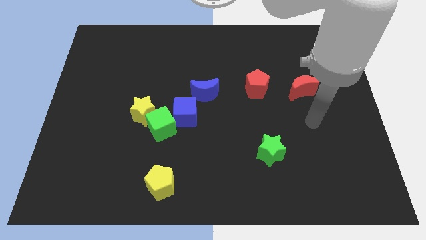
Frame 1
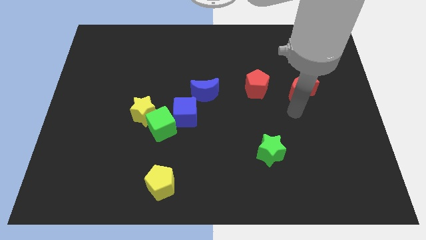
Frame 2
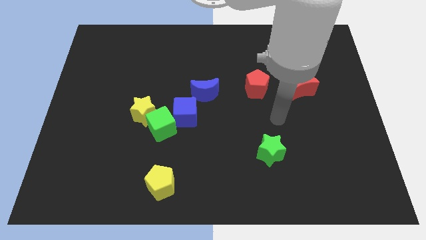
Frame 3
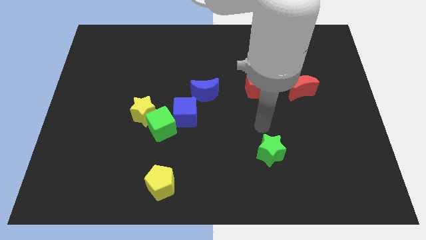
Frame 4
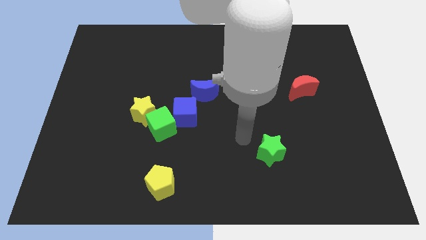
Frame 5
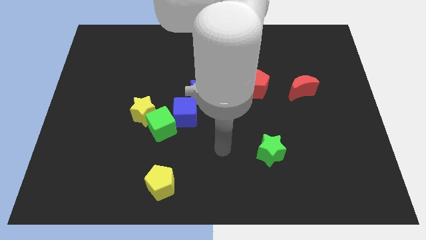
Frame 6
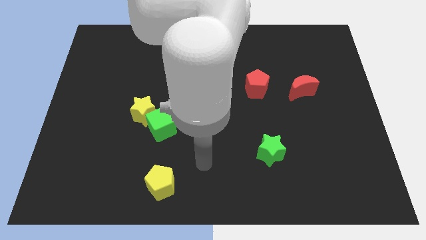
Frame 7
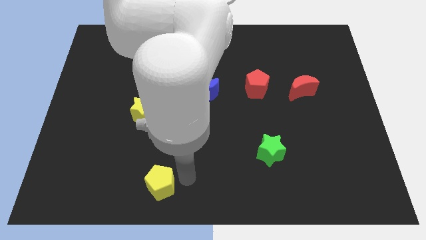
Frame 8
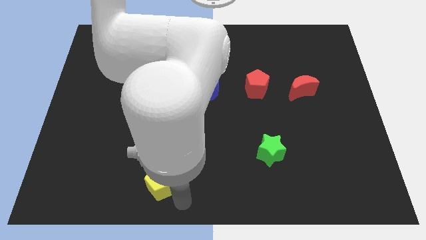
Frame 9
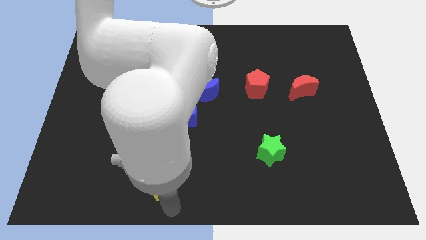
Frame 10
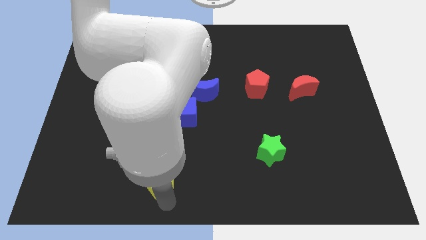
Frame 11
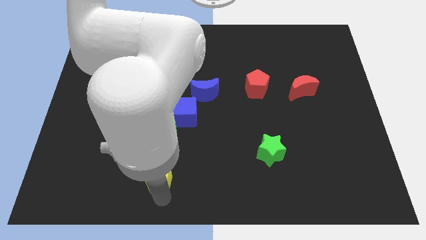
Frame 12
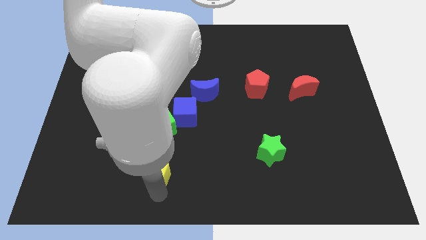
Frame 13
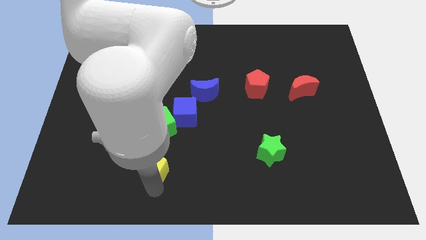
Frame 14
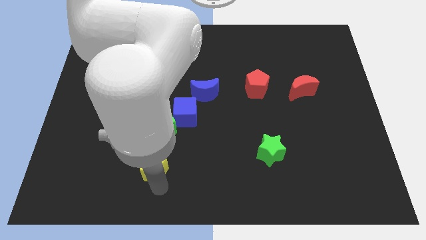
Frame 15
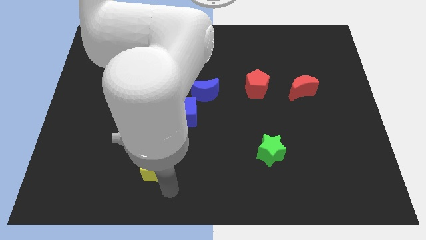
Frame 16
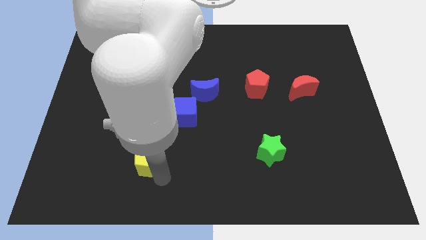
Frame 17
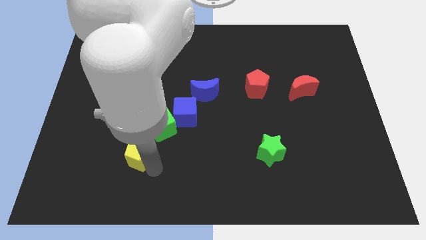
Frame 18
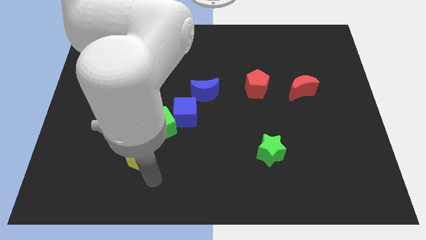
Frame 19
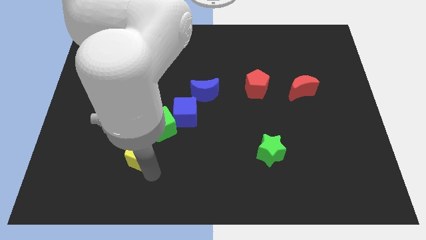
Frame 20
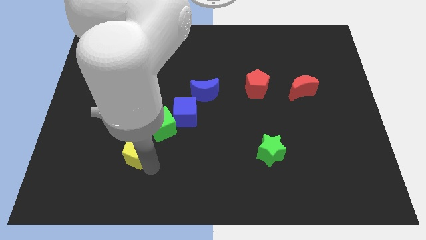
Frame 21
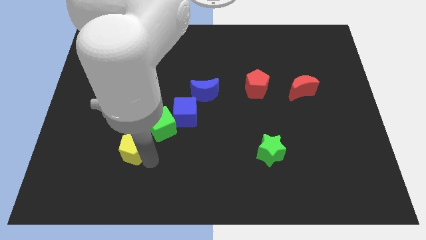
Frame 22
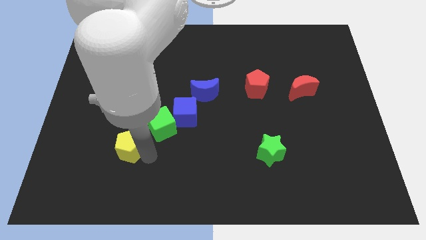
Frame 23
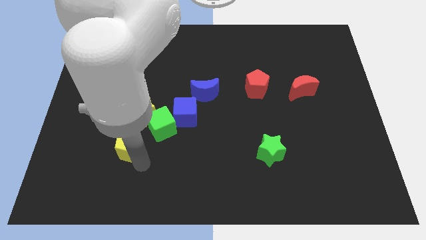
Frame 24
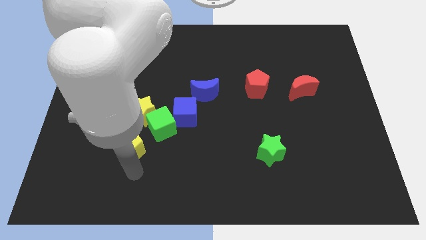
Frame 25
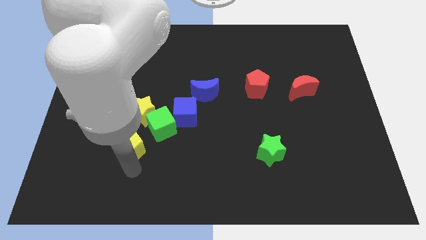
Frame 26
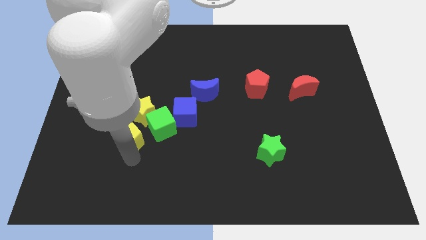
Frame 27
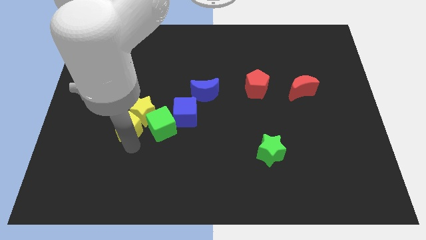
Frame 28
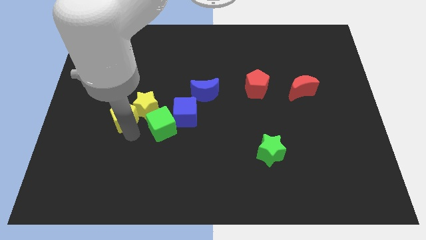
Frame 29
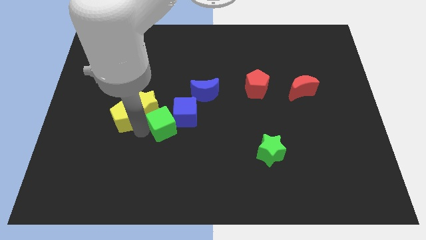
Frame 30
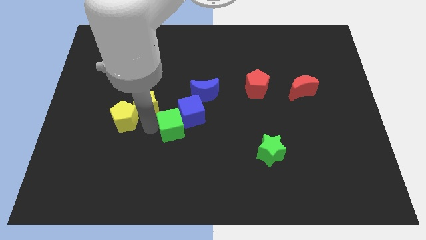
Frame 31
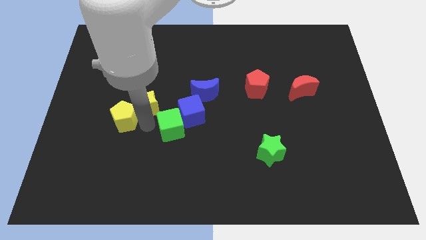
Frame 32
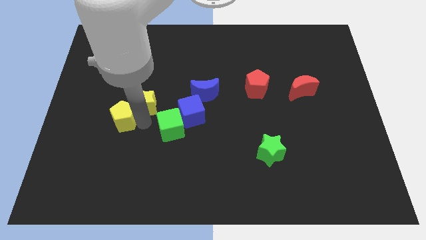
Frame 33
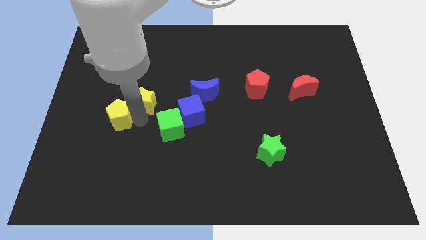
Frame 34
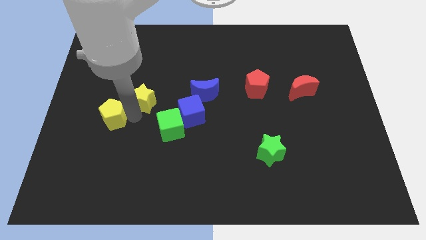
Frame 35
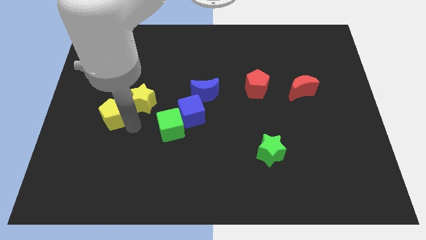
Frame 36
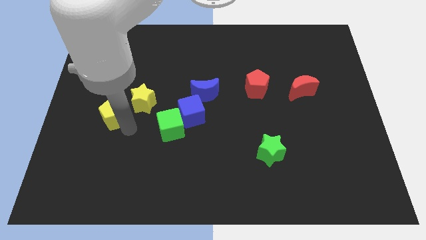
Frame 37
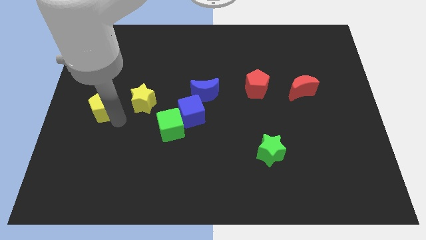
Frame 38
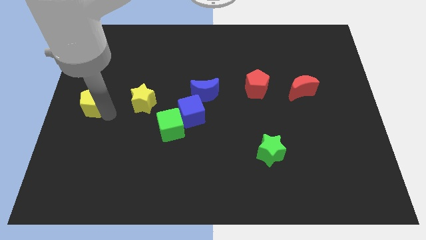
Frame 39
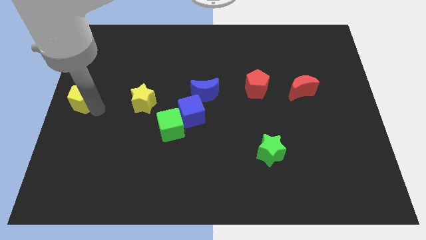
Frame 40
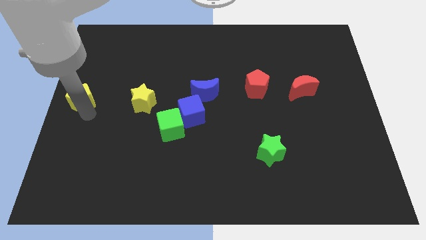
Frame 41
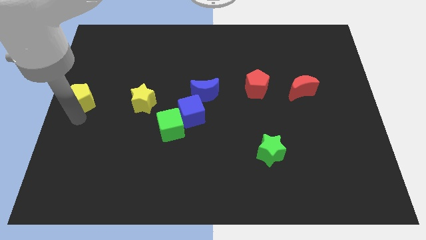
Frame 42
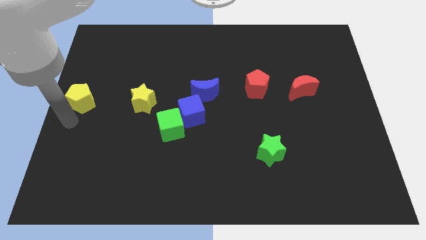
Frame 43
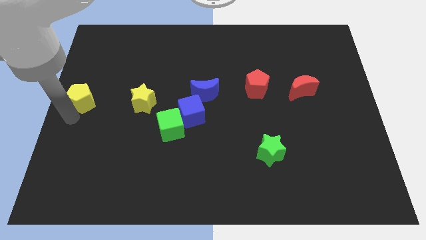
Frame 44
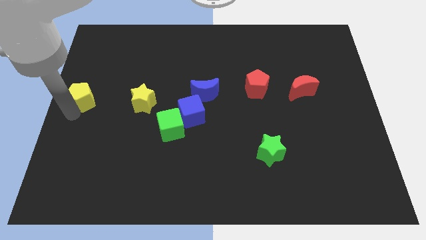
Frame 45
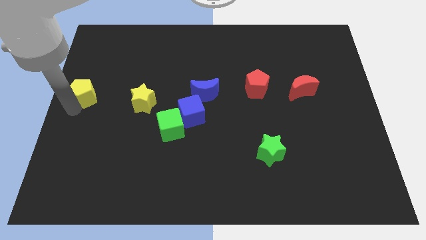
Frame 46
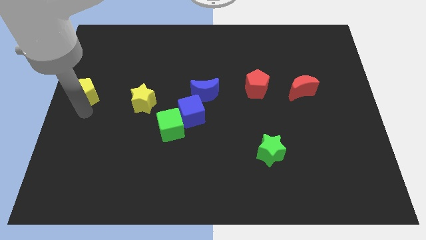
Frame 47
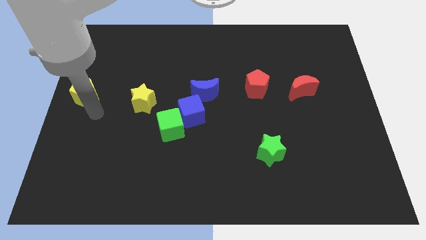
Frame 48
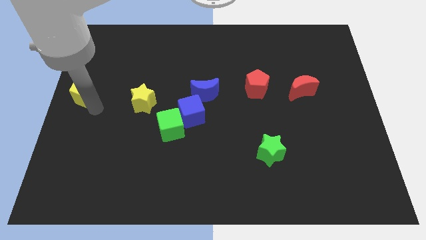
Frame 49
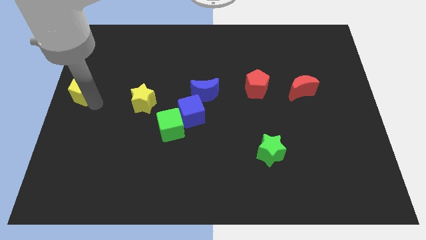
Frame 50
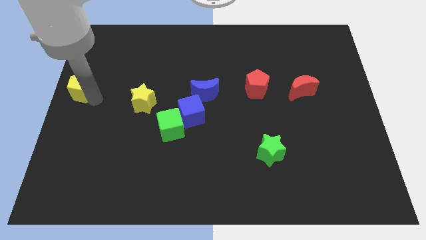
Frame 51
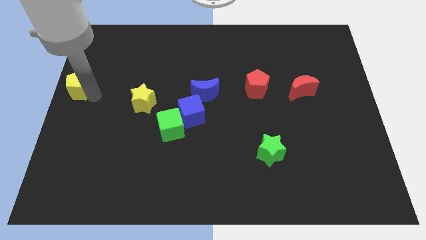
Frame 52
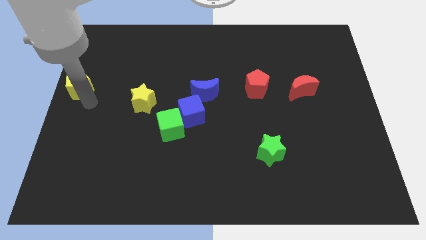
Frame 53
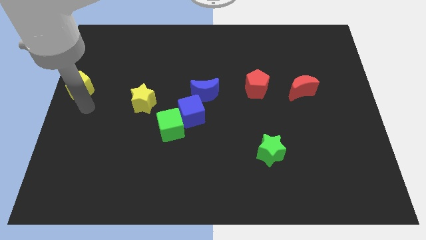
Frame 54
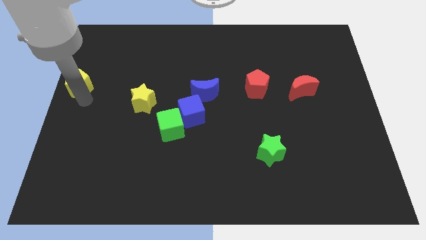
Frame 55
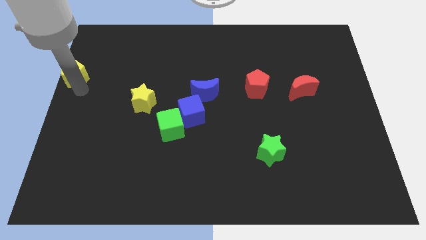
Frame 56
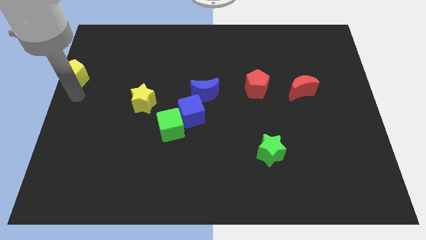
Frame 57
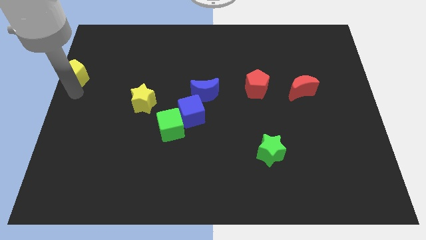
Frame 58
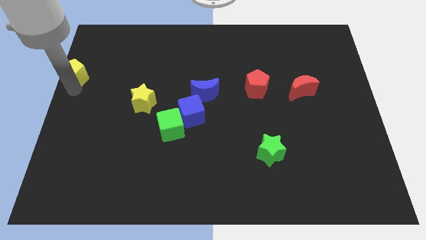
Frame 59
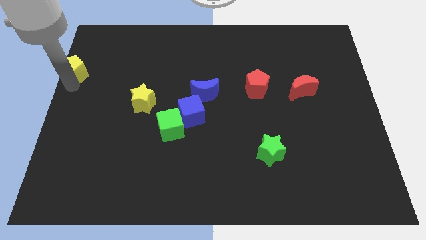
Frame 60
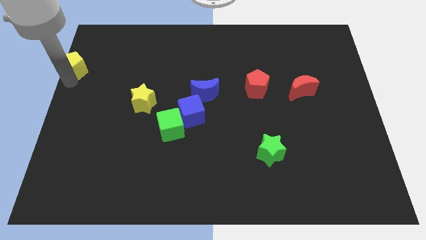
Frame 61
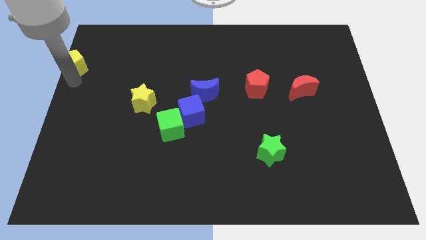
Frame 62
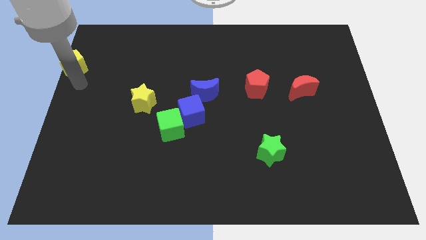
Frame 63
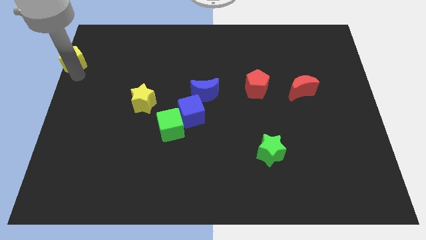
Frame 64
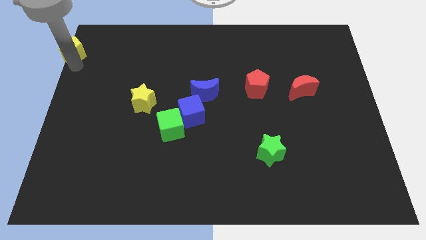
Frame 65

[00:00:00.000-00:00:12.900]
move the yellow pentagon to the upper left corner
